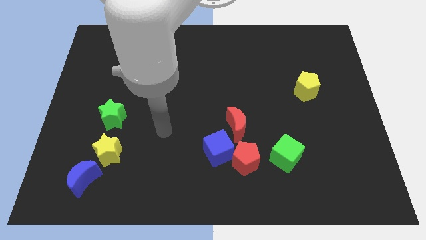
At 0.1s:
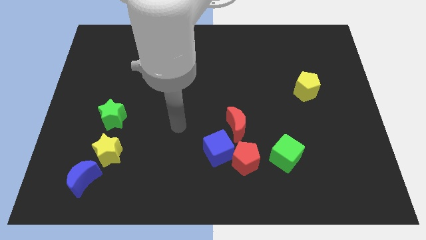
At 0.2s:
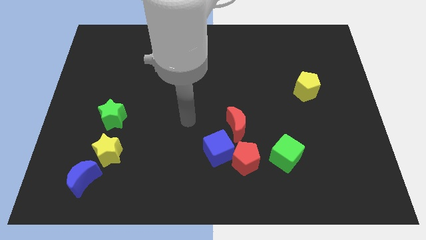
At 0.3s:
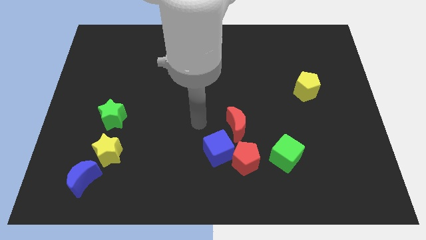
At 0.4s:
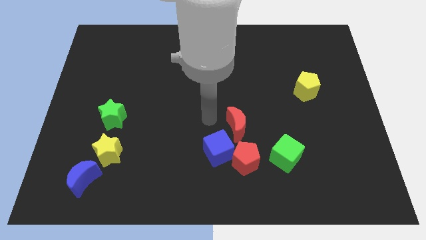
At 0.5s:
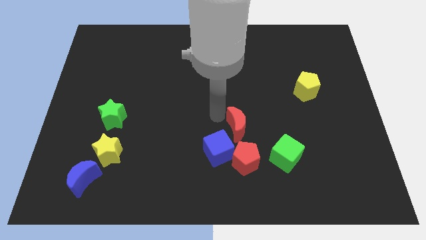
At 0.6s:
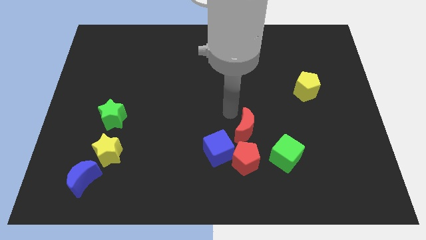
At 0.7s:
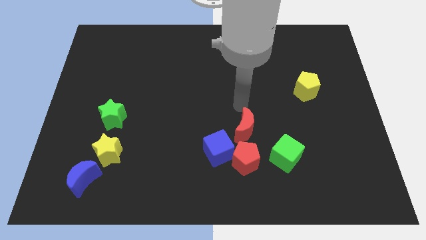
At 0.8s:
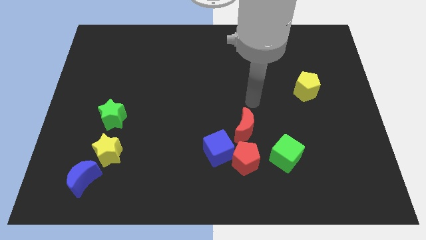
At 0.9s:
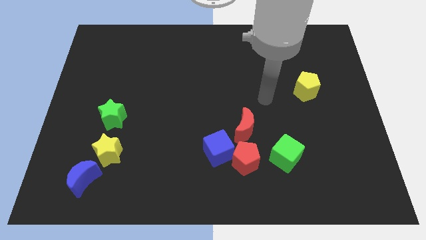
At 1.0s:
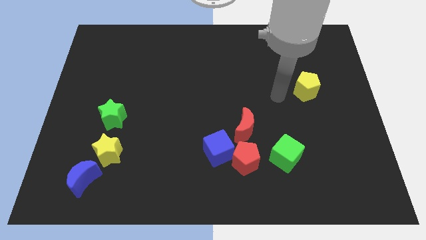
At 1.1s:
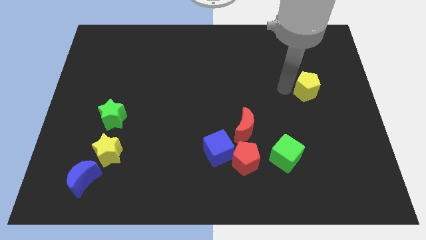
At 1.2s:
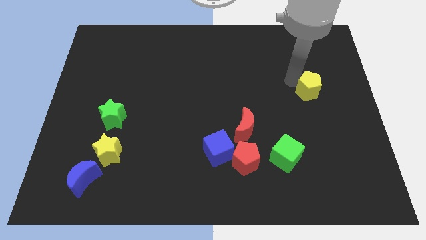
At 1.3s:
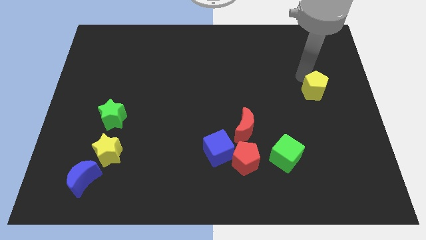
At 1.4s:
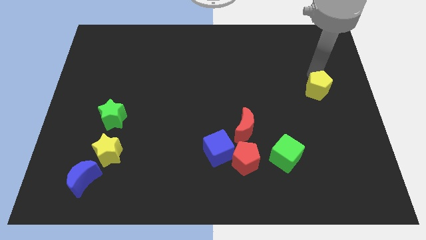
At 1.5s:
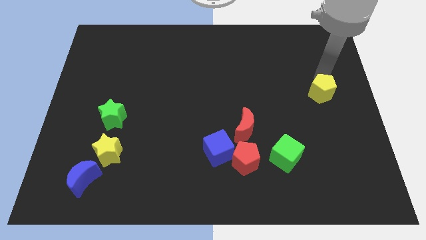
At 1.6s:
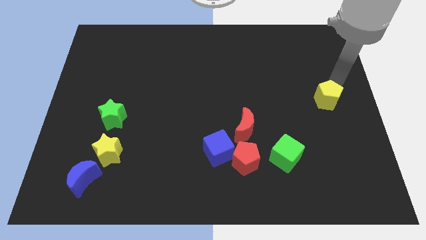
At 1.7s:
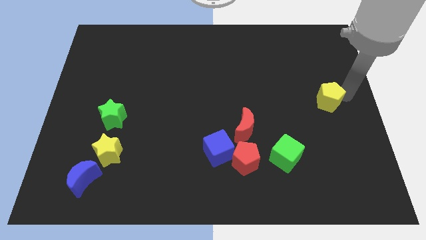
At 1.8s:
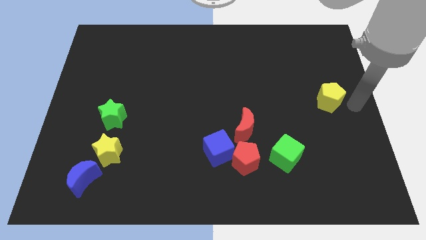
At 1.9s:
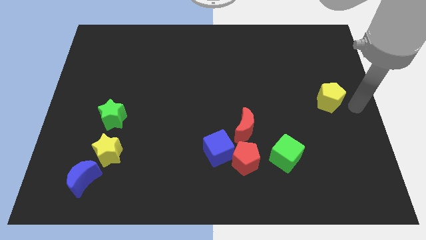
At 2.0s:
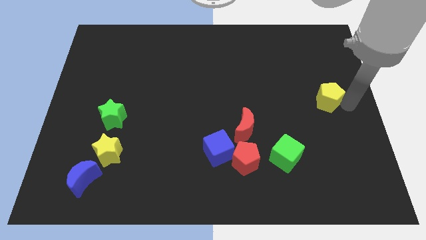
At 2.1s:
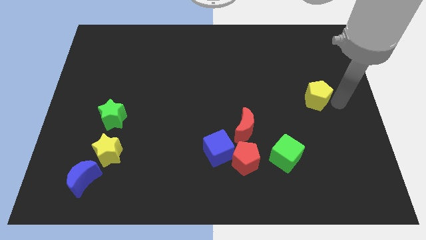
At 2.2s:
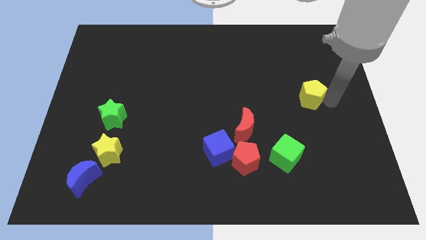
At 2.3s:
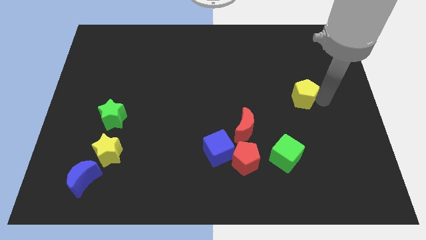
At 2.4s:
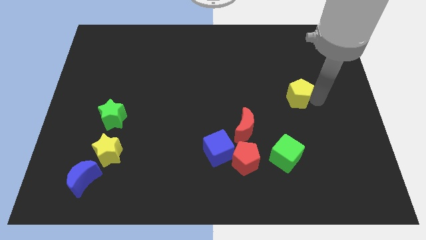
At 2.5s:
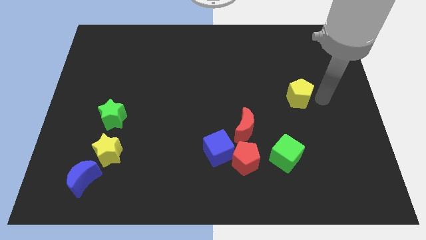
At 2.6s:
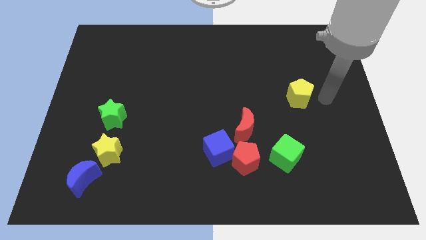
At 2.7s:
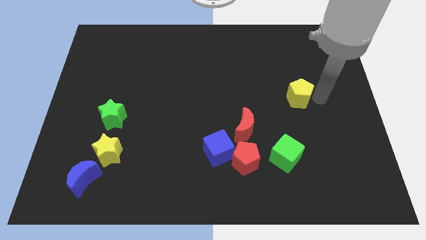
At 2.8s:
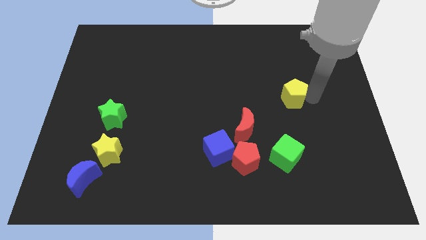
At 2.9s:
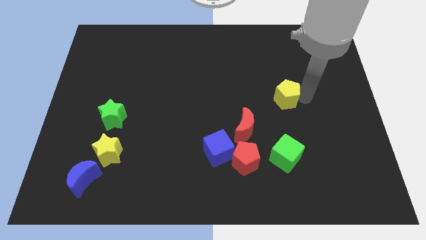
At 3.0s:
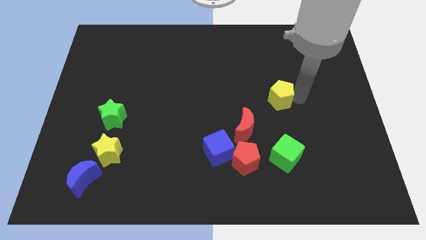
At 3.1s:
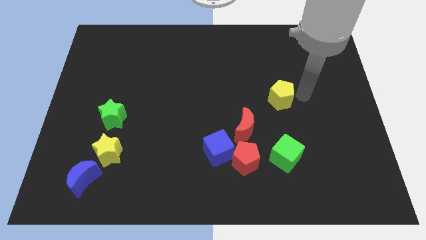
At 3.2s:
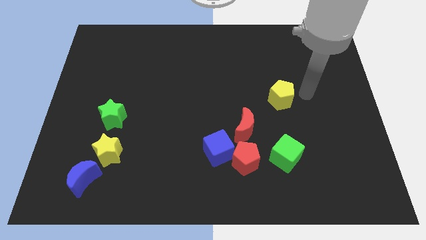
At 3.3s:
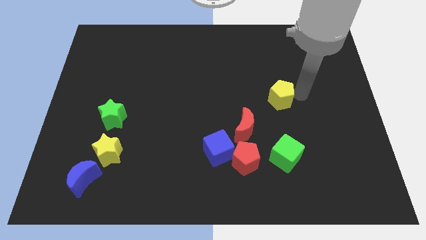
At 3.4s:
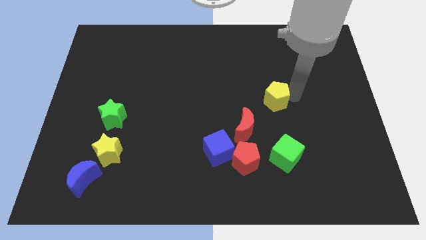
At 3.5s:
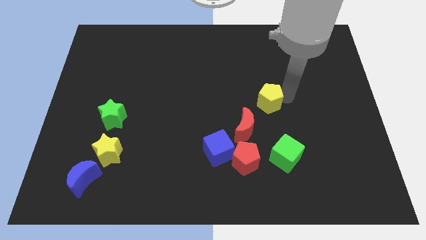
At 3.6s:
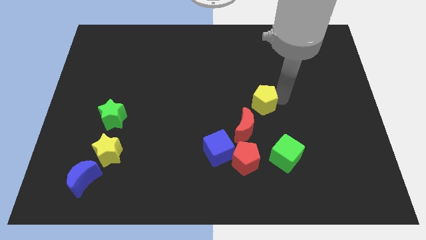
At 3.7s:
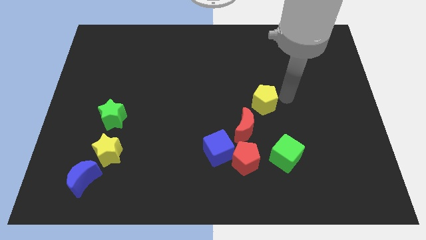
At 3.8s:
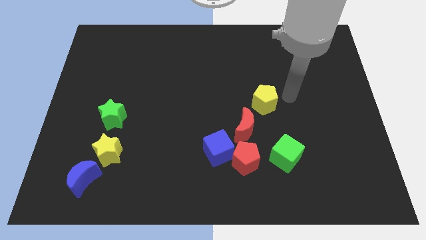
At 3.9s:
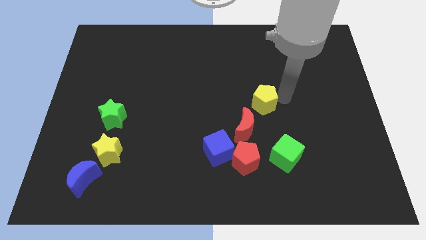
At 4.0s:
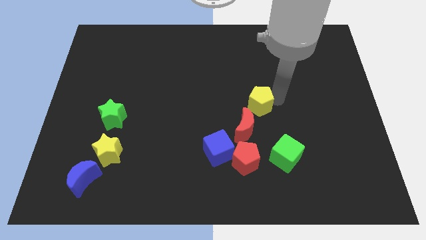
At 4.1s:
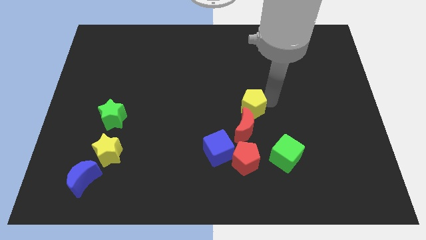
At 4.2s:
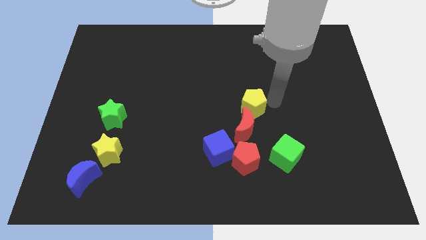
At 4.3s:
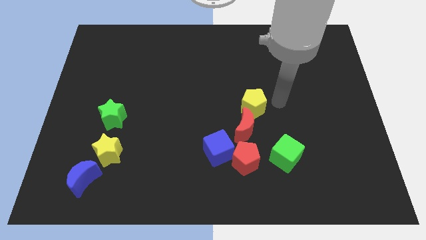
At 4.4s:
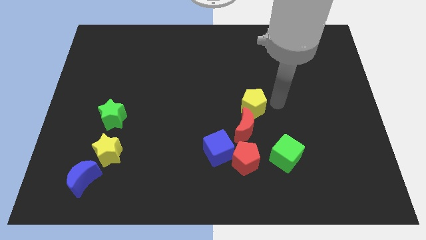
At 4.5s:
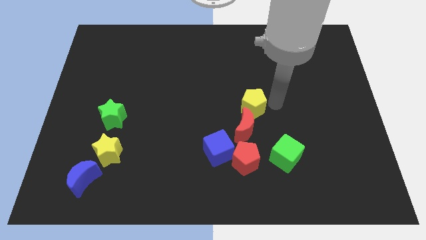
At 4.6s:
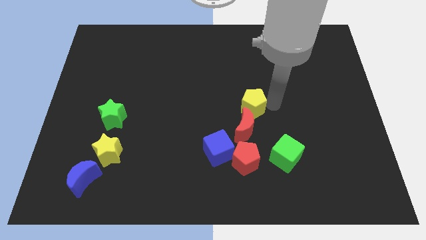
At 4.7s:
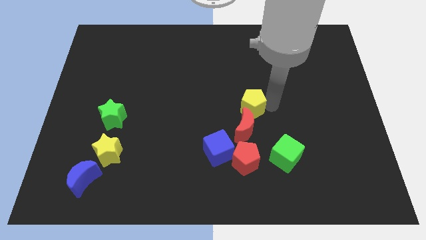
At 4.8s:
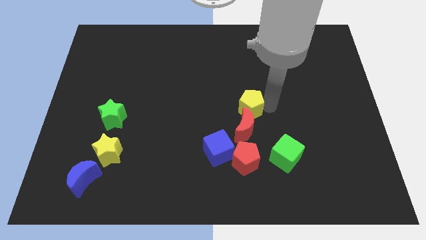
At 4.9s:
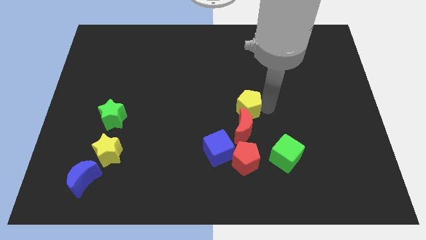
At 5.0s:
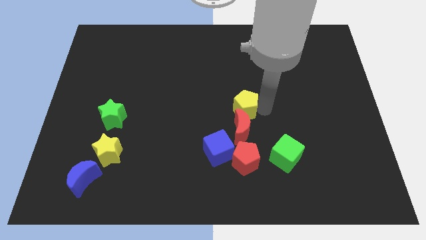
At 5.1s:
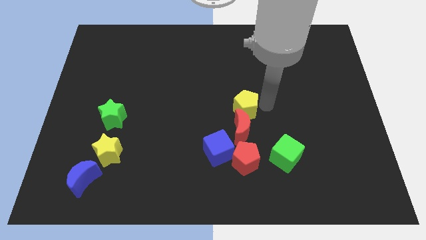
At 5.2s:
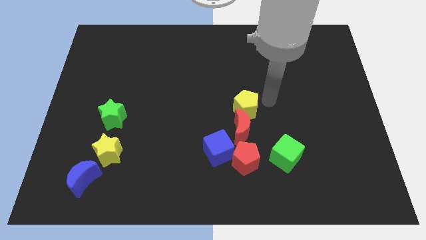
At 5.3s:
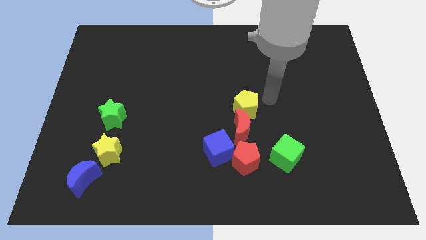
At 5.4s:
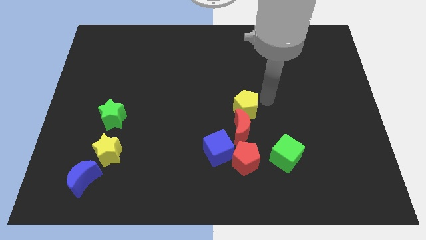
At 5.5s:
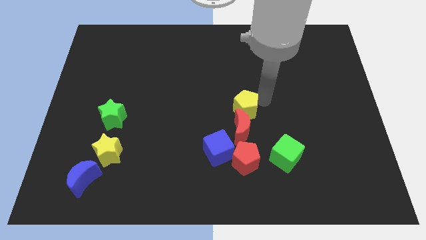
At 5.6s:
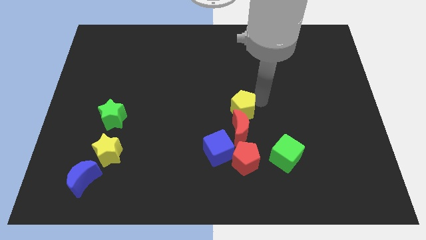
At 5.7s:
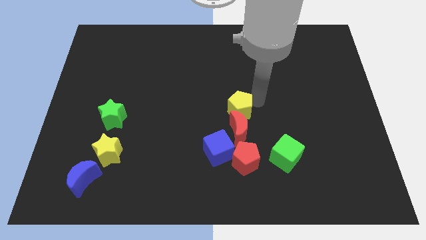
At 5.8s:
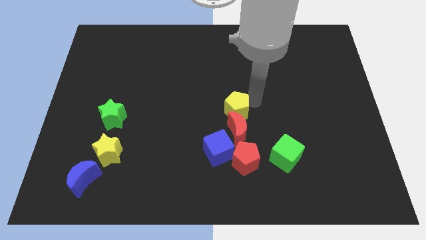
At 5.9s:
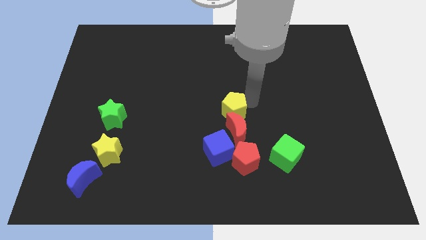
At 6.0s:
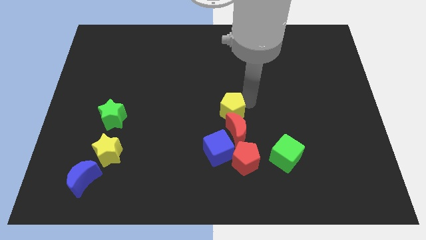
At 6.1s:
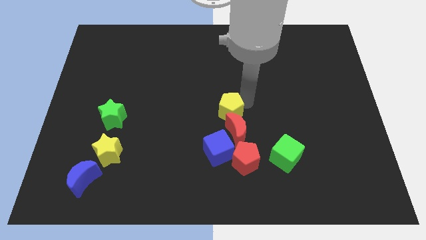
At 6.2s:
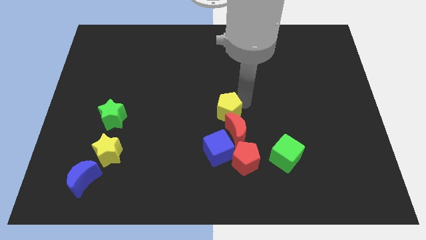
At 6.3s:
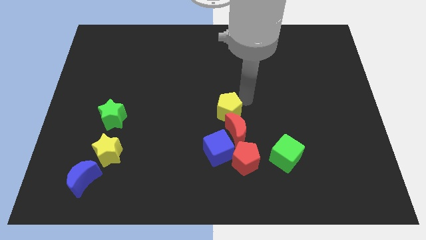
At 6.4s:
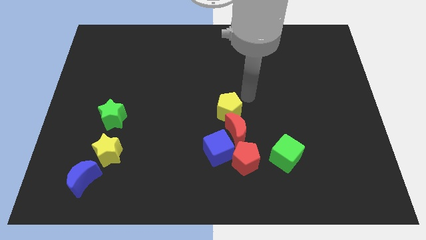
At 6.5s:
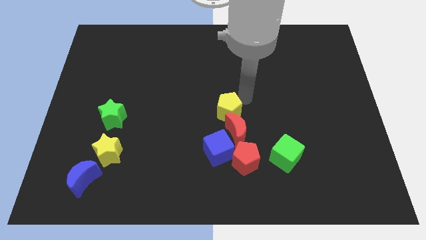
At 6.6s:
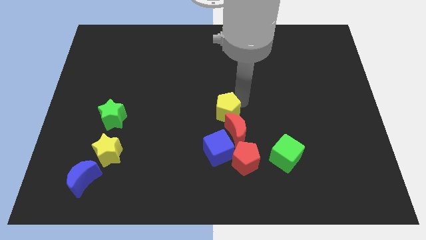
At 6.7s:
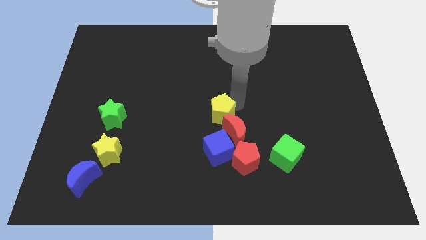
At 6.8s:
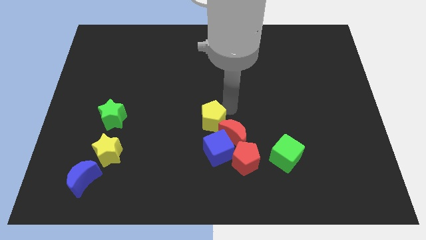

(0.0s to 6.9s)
move the yellow pentagon left of the red moon

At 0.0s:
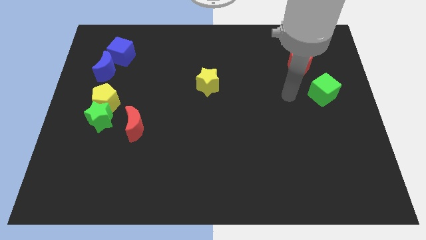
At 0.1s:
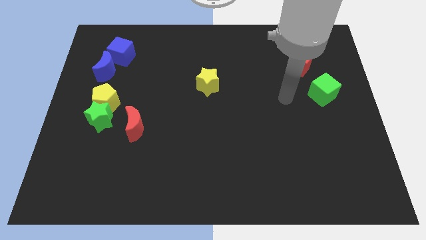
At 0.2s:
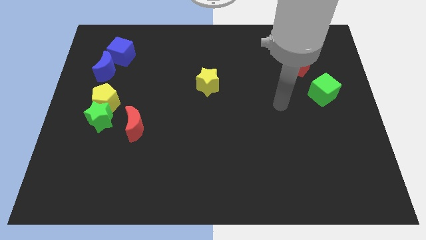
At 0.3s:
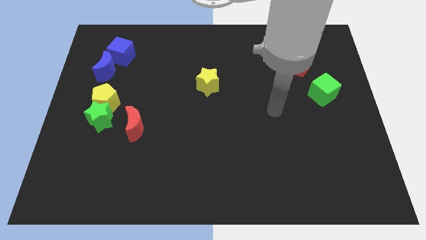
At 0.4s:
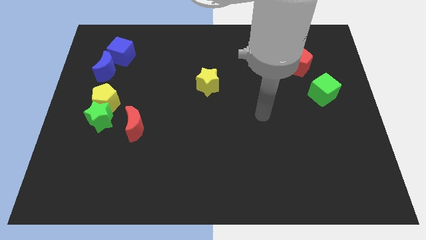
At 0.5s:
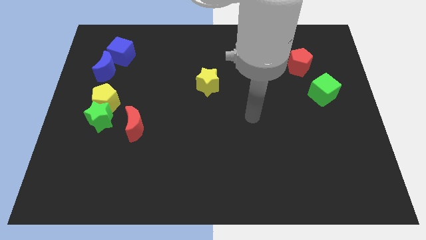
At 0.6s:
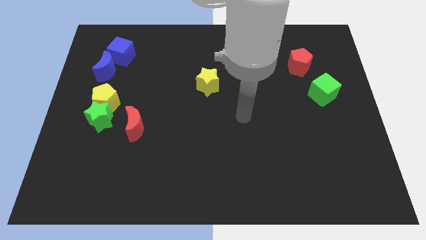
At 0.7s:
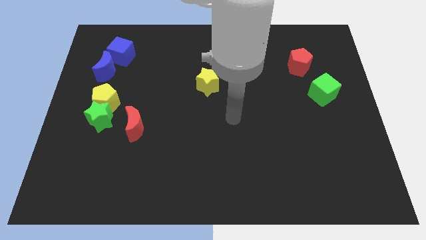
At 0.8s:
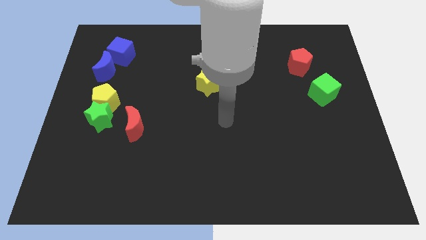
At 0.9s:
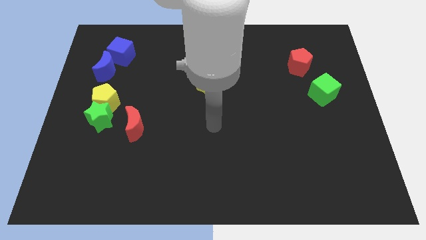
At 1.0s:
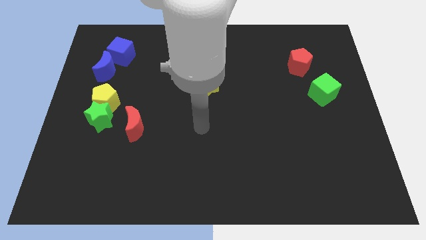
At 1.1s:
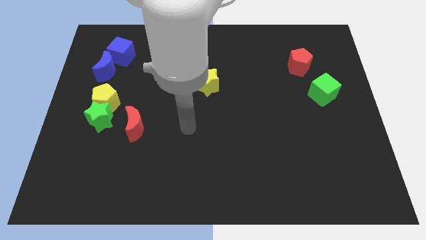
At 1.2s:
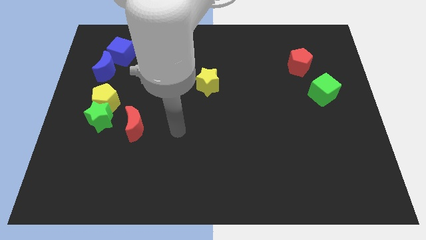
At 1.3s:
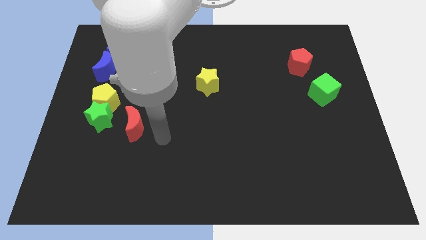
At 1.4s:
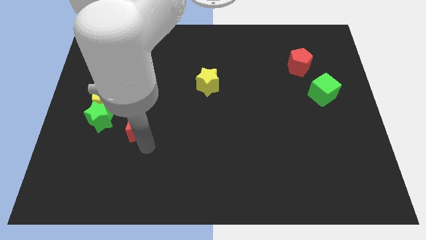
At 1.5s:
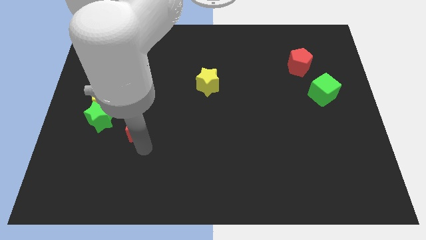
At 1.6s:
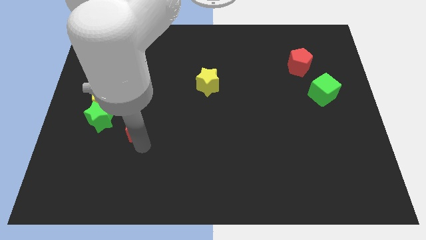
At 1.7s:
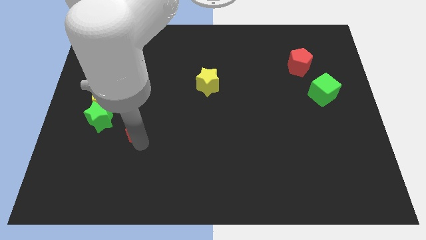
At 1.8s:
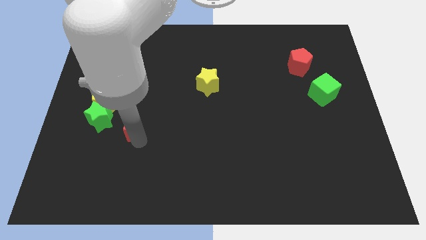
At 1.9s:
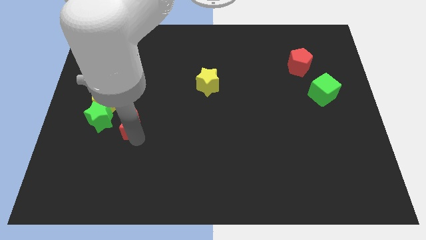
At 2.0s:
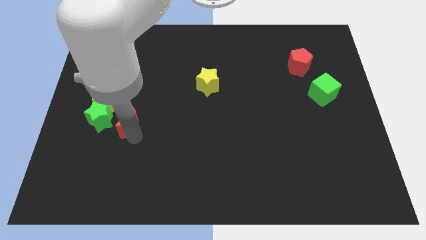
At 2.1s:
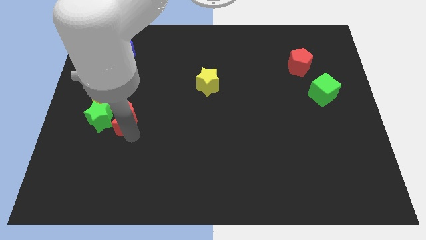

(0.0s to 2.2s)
move the red moon diagonally up and to the right of the green star
